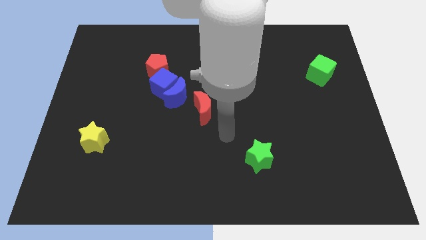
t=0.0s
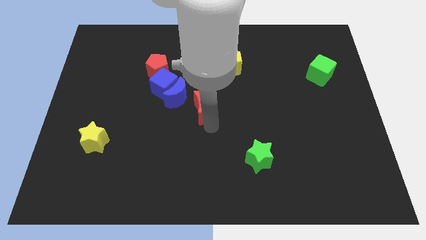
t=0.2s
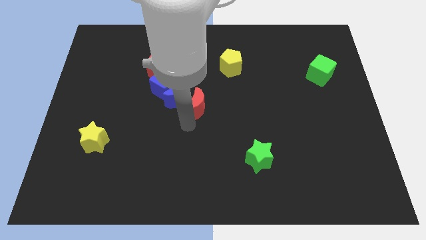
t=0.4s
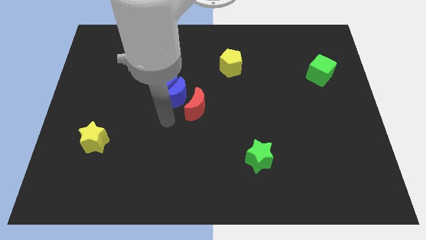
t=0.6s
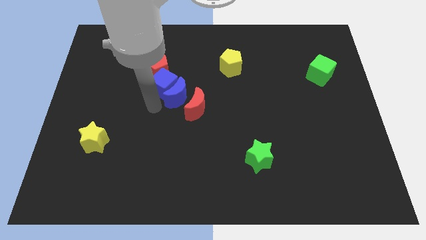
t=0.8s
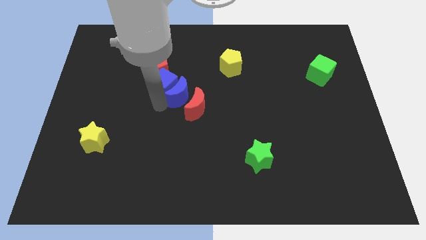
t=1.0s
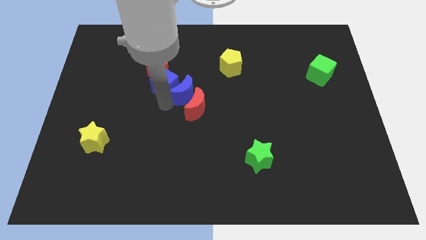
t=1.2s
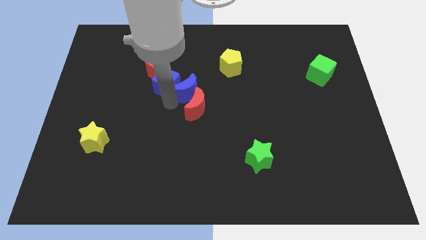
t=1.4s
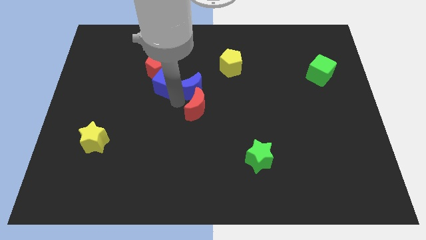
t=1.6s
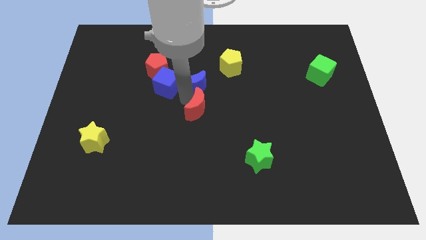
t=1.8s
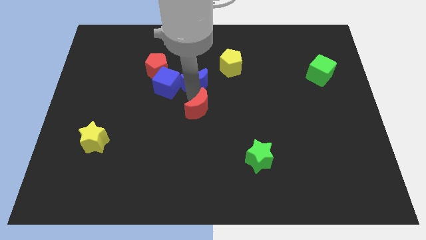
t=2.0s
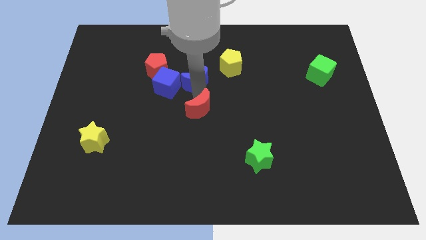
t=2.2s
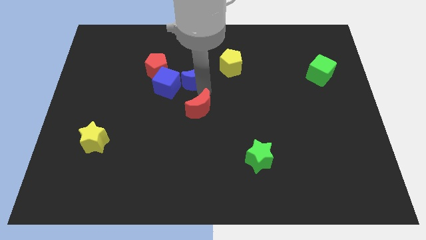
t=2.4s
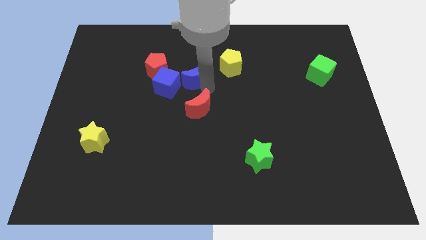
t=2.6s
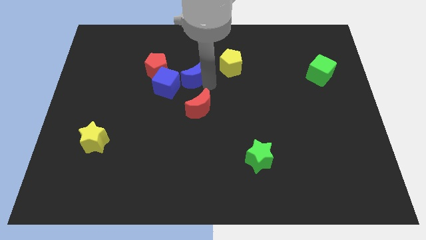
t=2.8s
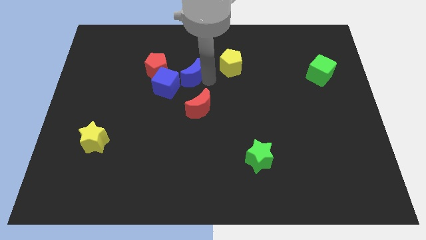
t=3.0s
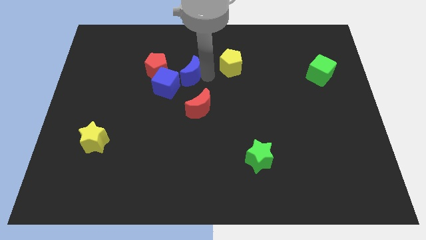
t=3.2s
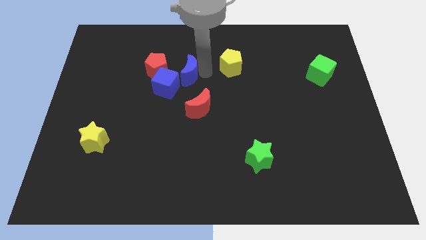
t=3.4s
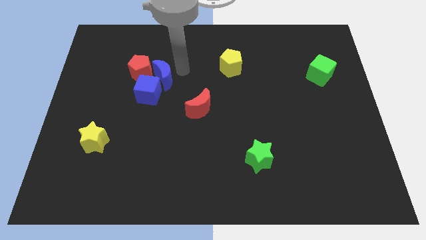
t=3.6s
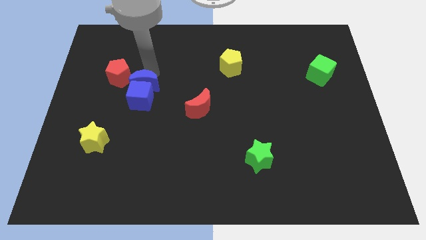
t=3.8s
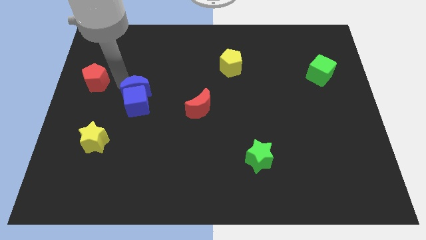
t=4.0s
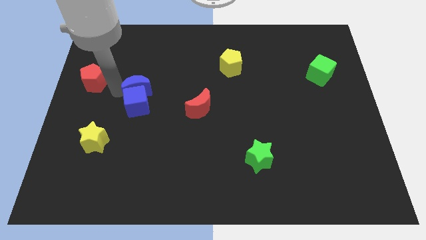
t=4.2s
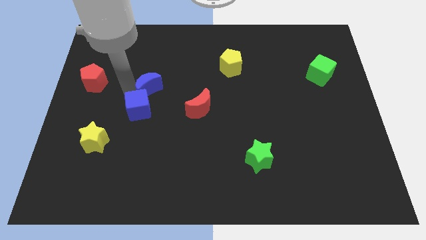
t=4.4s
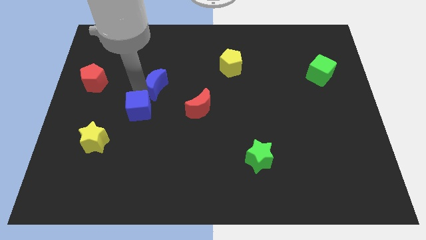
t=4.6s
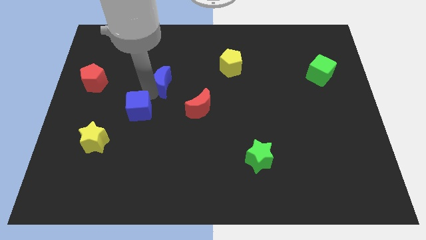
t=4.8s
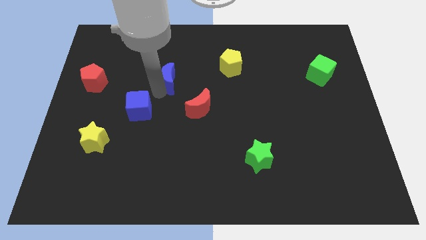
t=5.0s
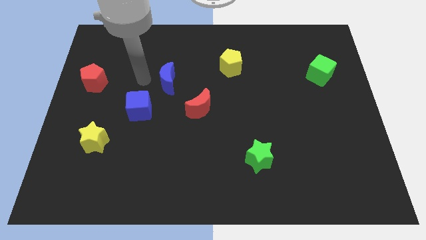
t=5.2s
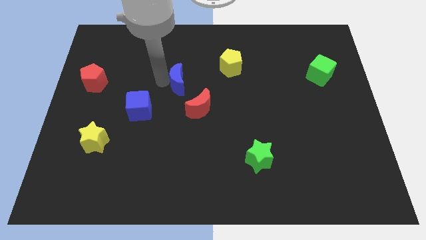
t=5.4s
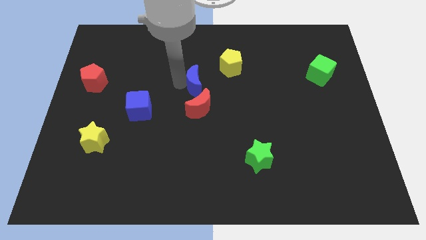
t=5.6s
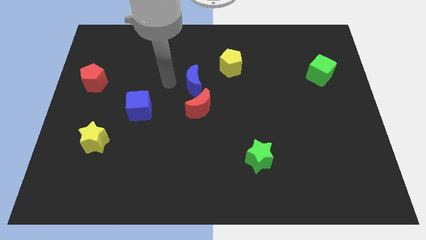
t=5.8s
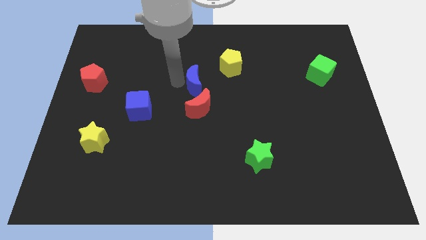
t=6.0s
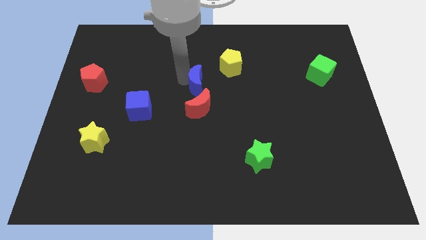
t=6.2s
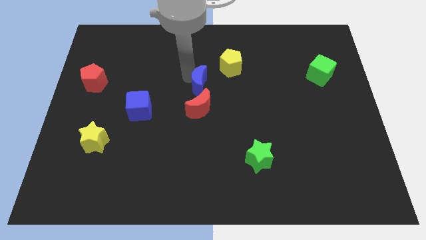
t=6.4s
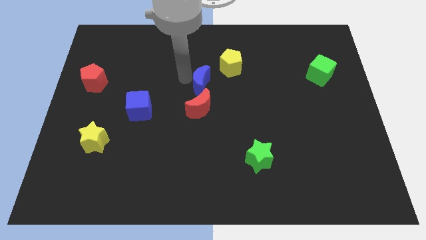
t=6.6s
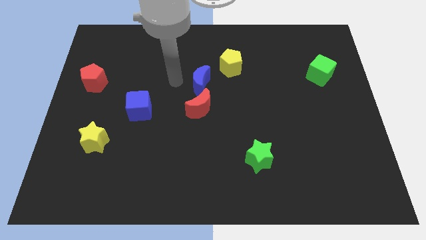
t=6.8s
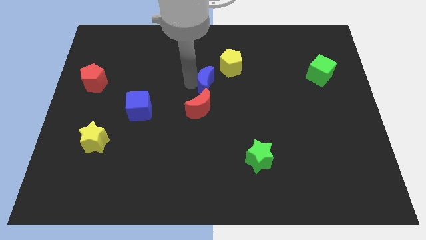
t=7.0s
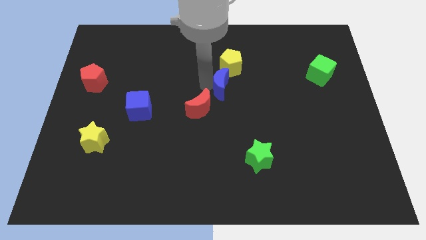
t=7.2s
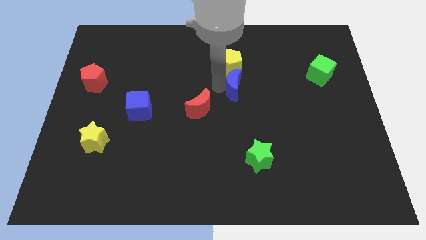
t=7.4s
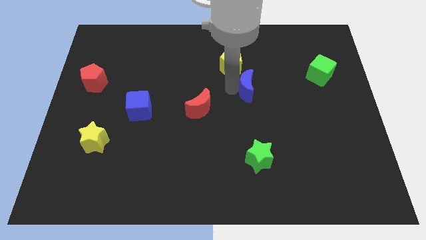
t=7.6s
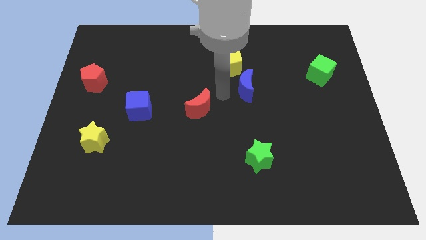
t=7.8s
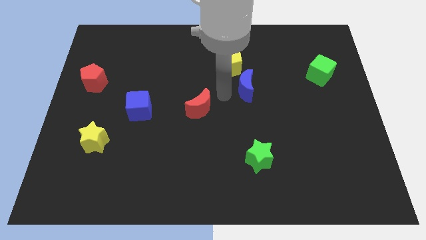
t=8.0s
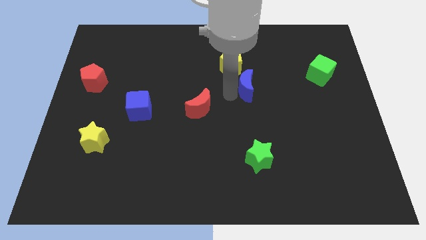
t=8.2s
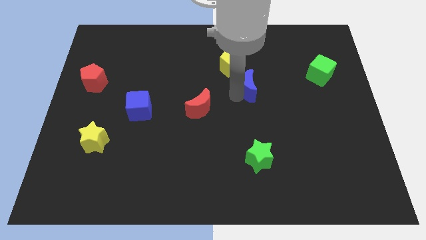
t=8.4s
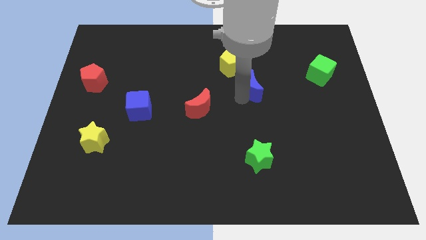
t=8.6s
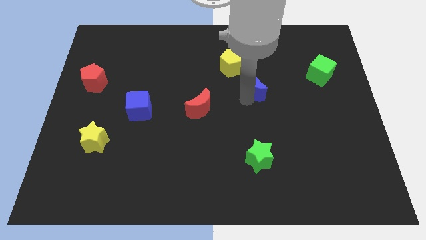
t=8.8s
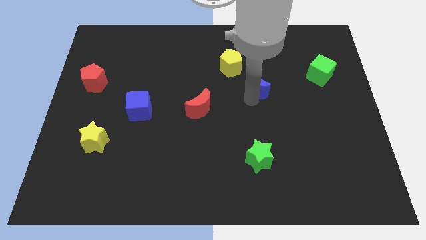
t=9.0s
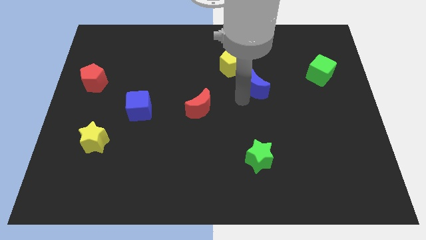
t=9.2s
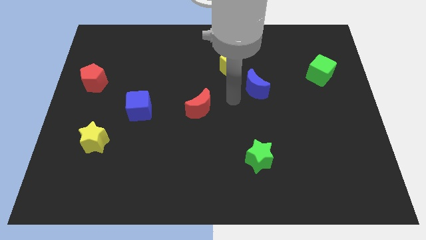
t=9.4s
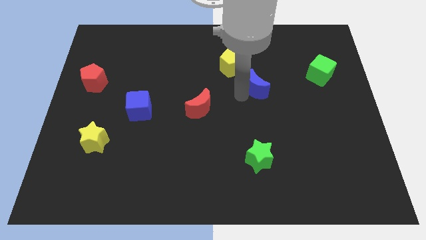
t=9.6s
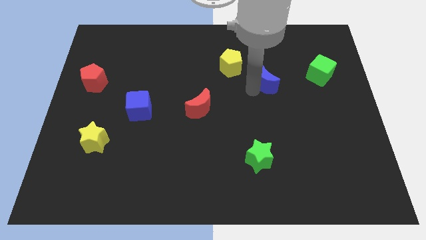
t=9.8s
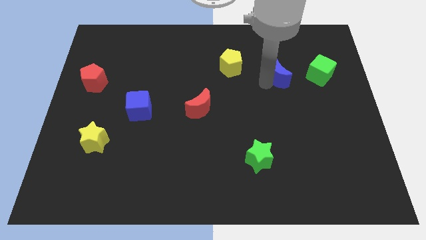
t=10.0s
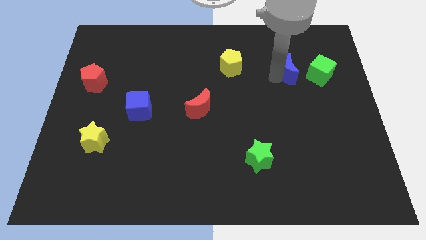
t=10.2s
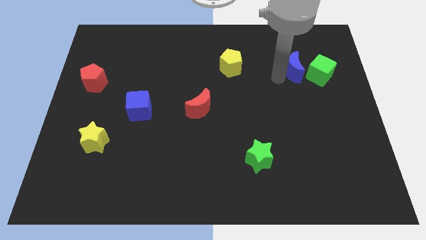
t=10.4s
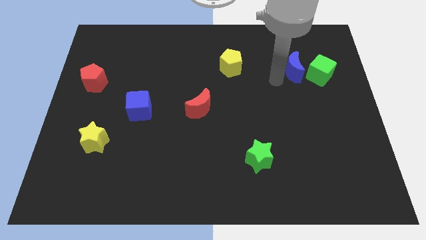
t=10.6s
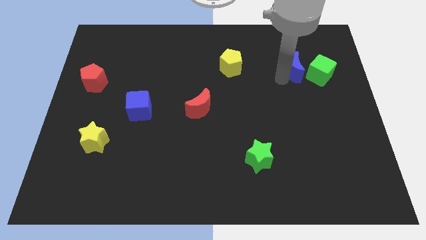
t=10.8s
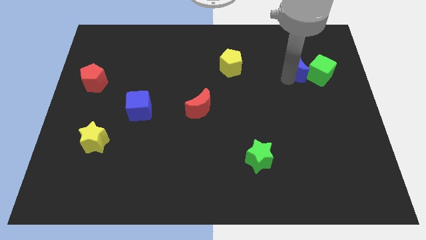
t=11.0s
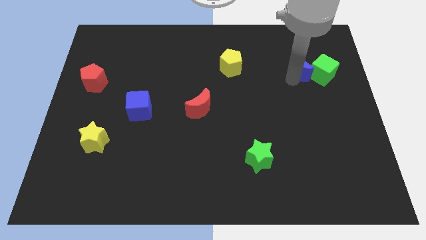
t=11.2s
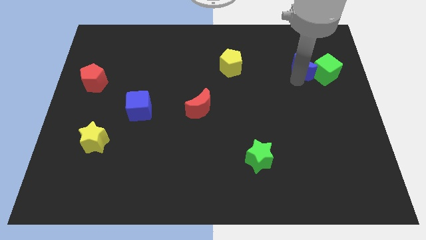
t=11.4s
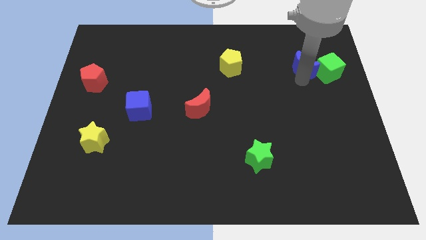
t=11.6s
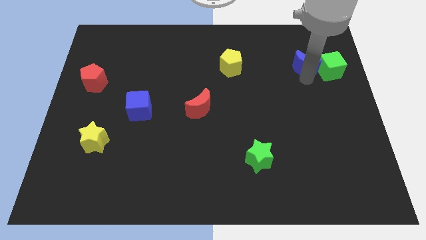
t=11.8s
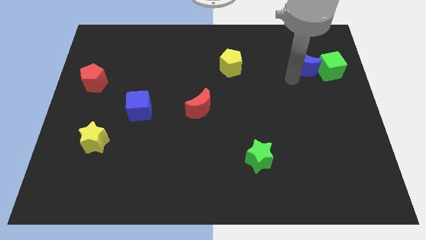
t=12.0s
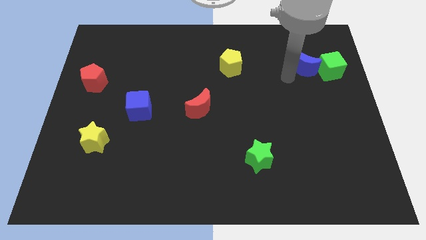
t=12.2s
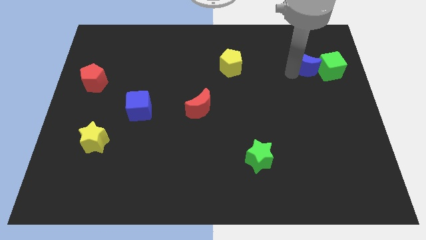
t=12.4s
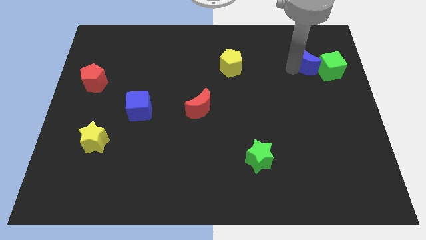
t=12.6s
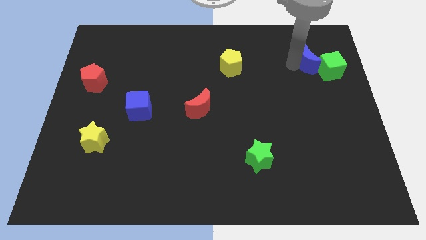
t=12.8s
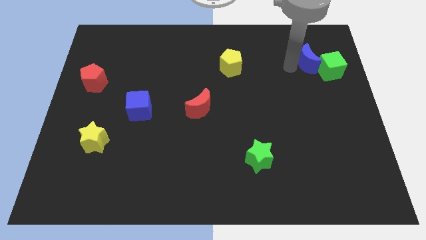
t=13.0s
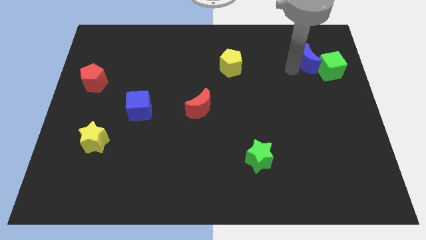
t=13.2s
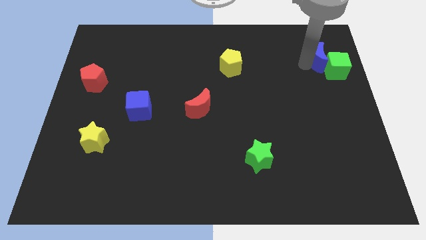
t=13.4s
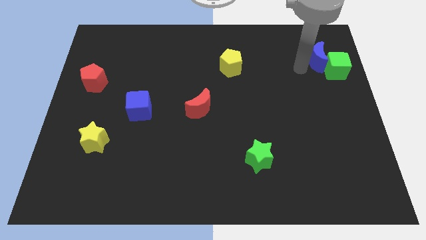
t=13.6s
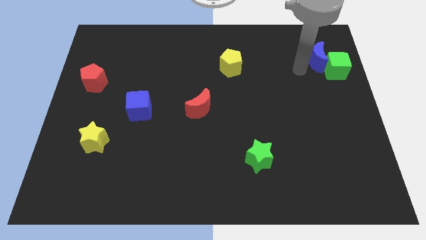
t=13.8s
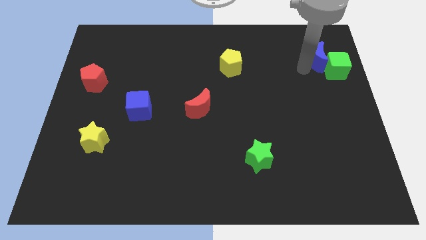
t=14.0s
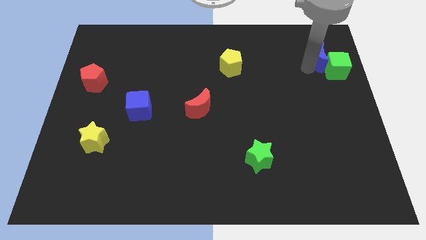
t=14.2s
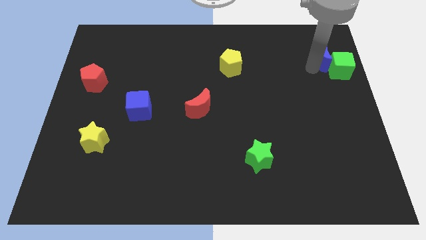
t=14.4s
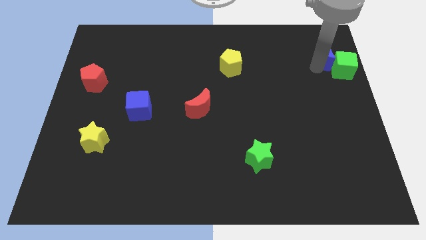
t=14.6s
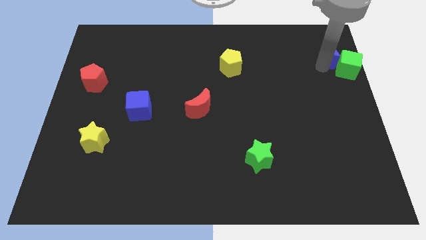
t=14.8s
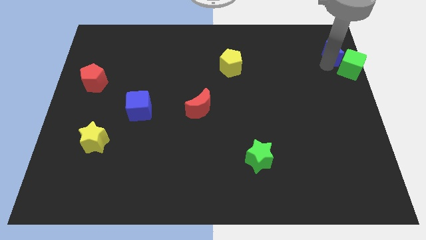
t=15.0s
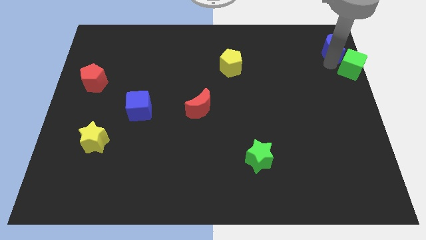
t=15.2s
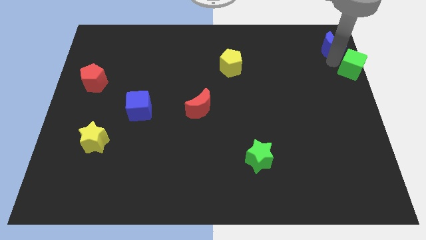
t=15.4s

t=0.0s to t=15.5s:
push the blue moon to the top right

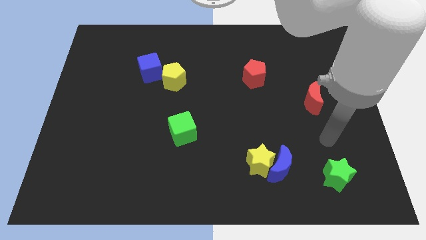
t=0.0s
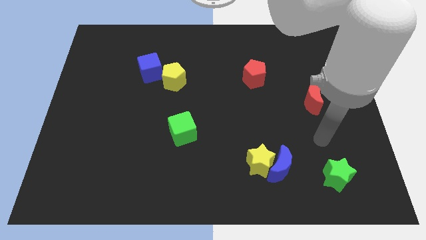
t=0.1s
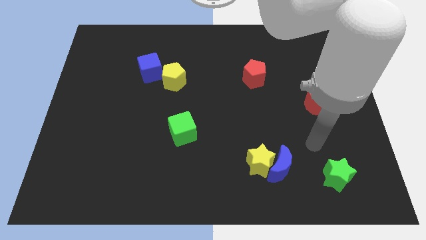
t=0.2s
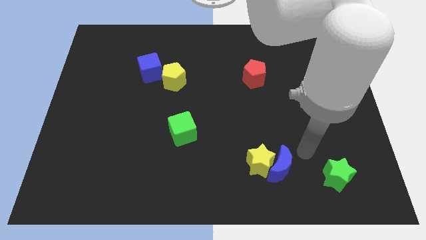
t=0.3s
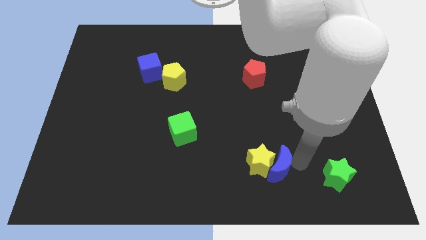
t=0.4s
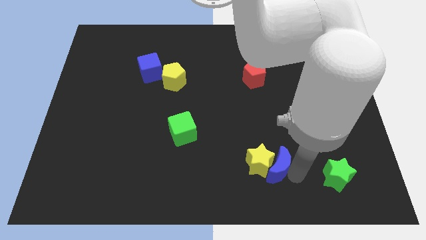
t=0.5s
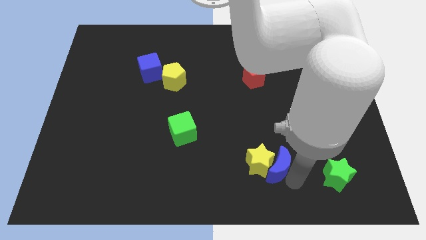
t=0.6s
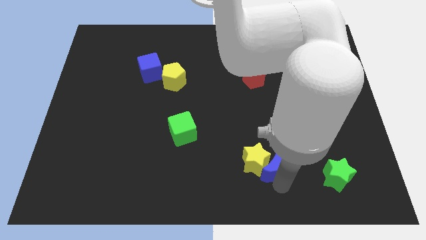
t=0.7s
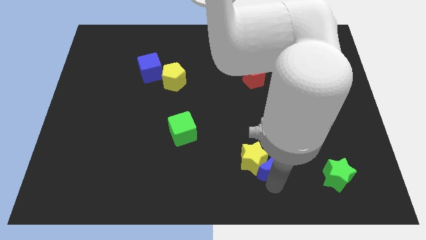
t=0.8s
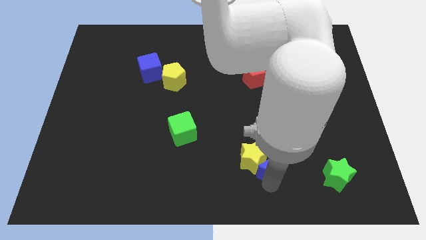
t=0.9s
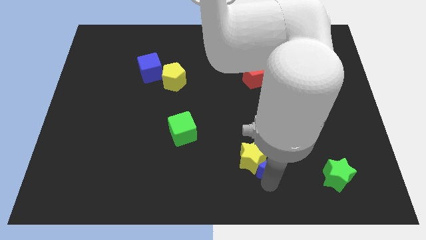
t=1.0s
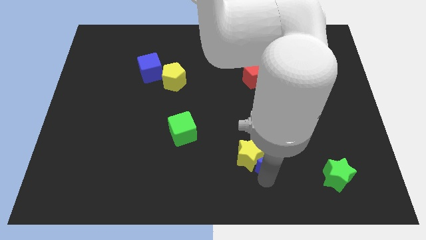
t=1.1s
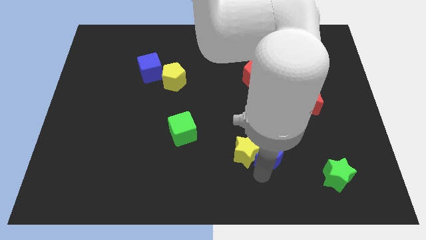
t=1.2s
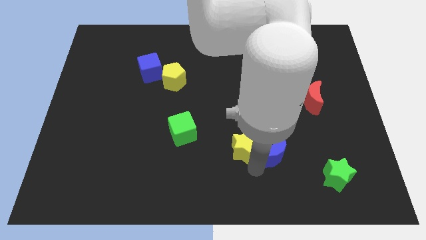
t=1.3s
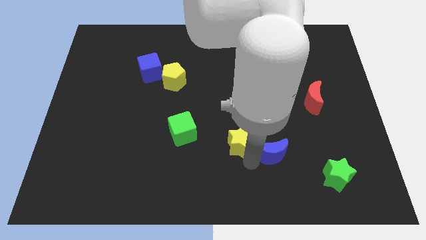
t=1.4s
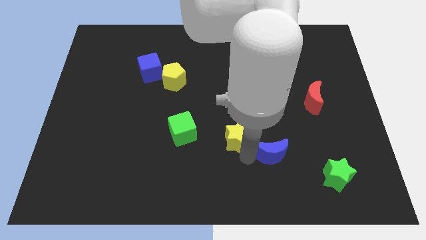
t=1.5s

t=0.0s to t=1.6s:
move the yellow star to the center
